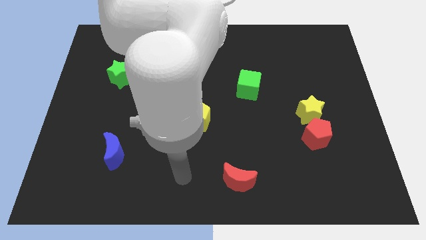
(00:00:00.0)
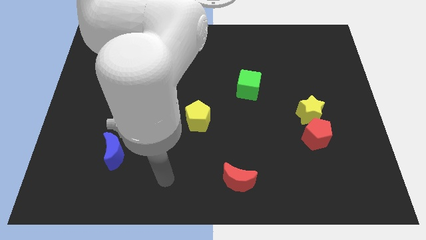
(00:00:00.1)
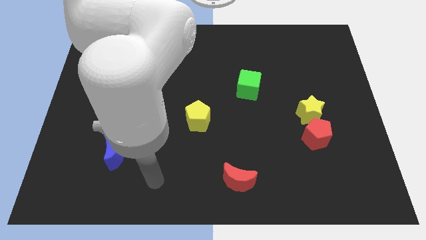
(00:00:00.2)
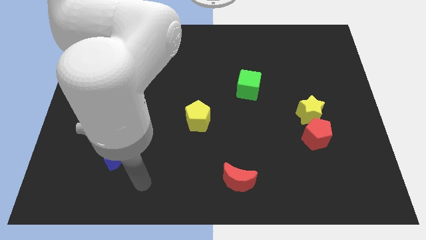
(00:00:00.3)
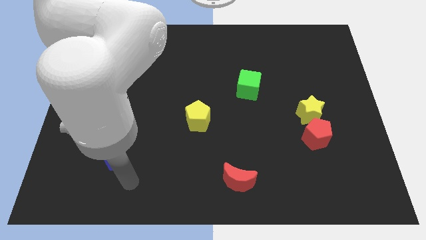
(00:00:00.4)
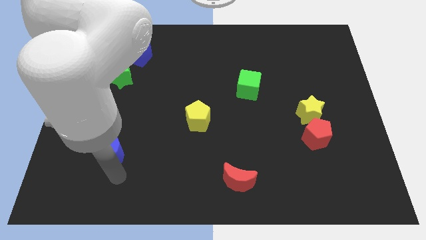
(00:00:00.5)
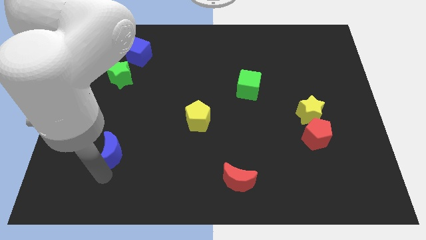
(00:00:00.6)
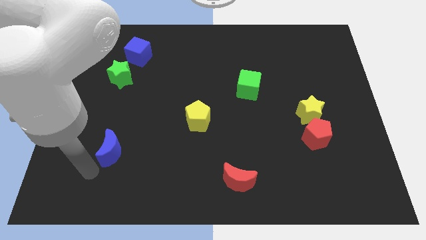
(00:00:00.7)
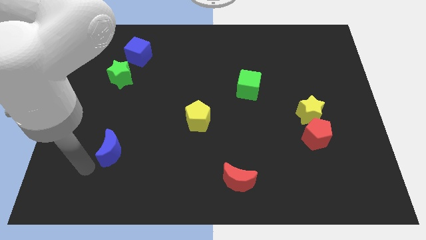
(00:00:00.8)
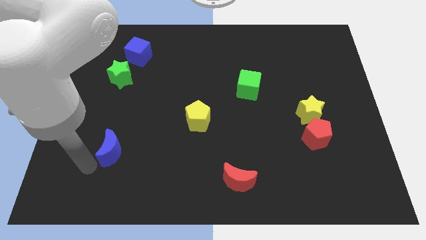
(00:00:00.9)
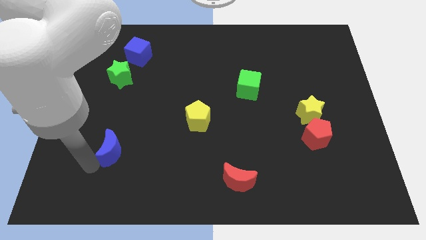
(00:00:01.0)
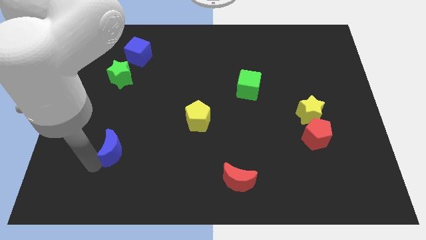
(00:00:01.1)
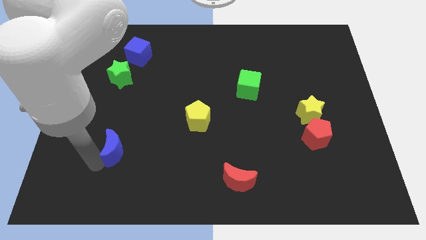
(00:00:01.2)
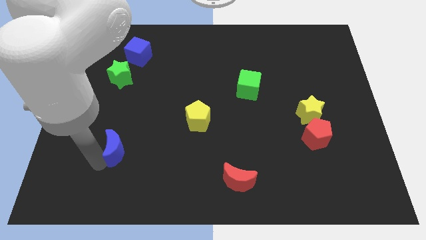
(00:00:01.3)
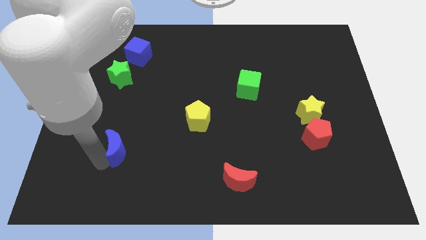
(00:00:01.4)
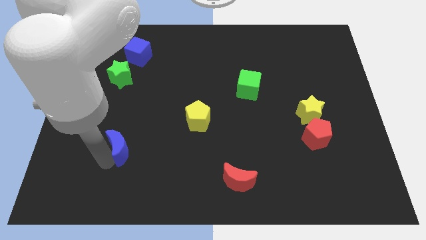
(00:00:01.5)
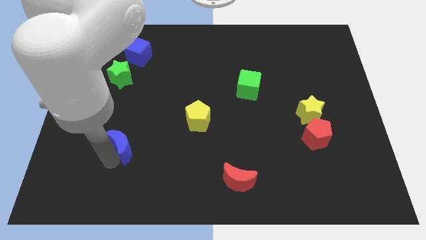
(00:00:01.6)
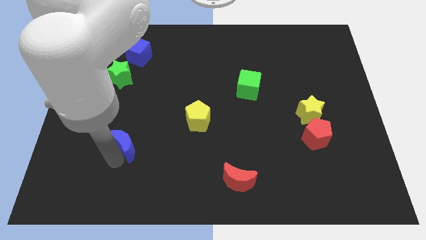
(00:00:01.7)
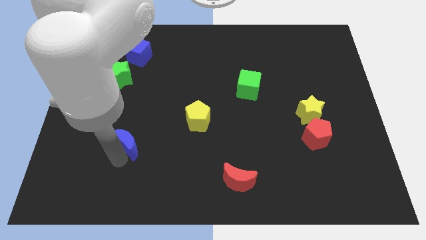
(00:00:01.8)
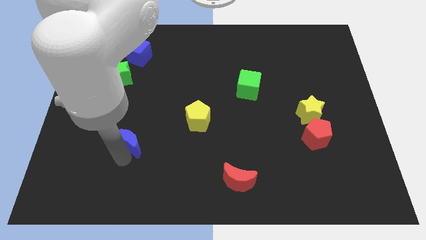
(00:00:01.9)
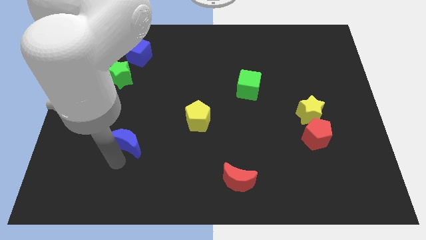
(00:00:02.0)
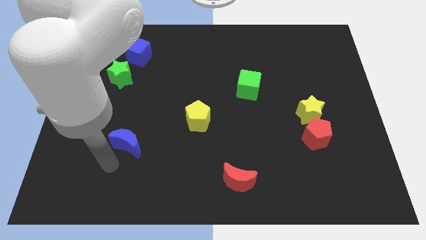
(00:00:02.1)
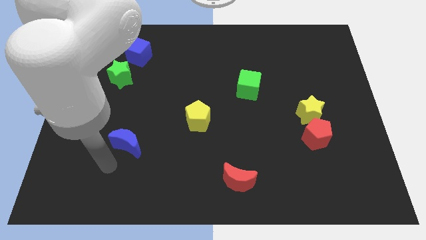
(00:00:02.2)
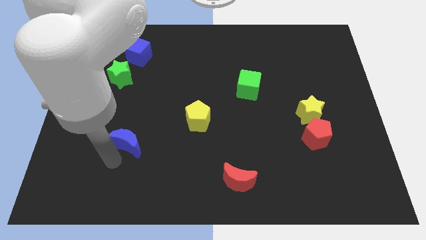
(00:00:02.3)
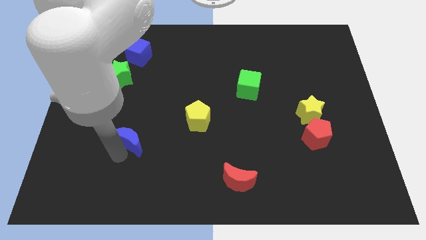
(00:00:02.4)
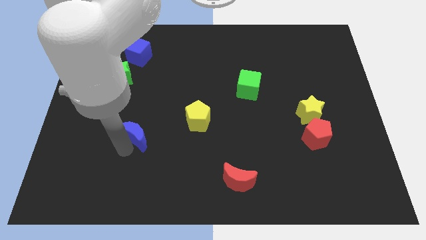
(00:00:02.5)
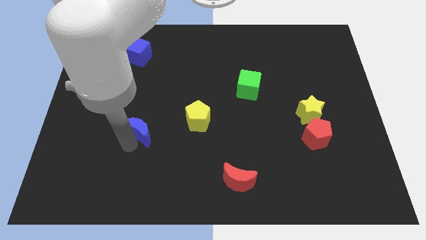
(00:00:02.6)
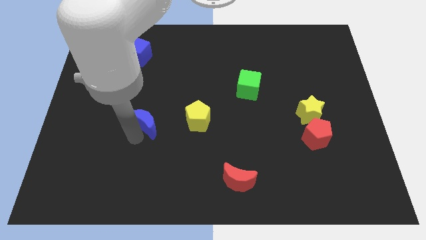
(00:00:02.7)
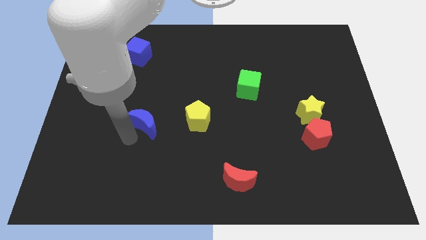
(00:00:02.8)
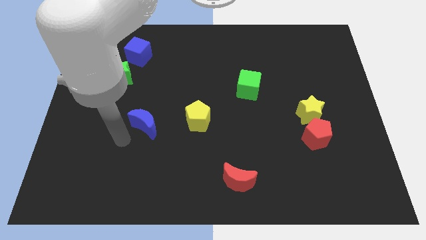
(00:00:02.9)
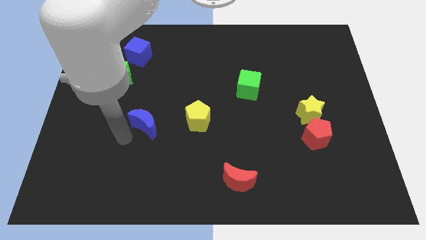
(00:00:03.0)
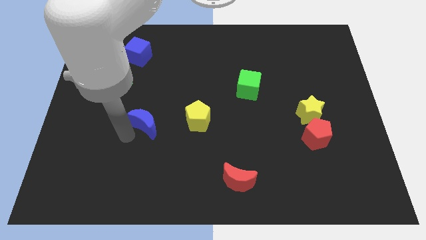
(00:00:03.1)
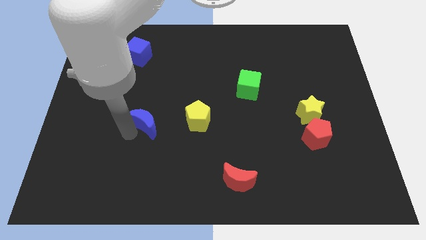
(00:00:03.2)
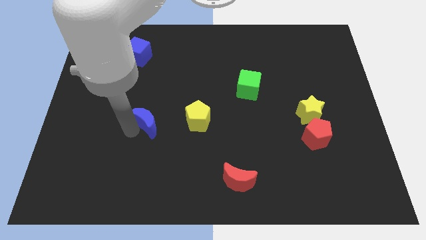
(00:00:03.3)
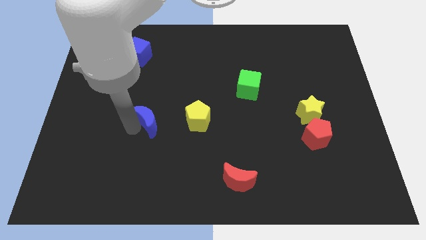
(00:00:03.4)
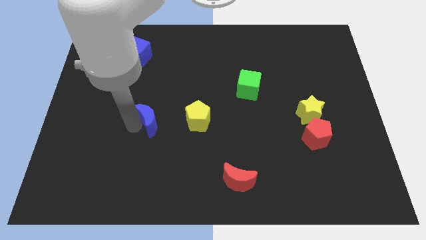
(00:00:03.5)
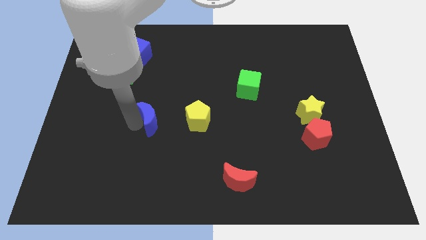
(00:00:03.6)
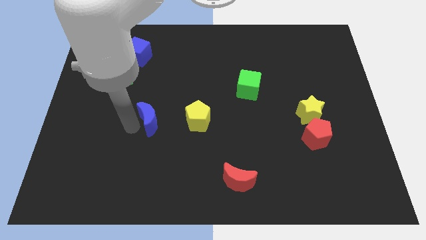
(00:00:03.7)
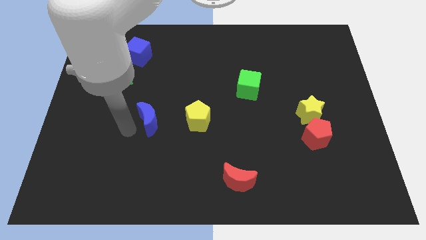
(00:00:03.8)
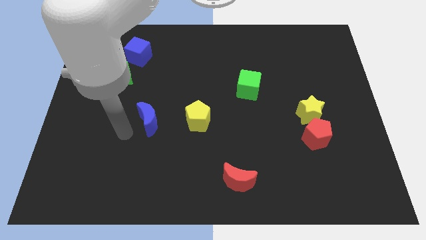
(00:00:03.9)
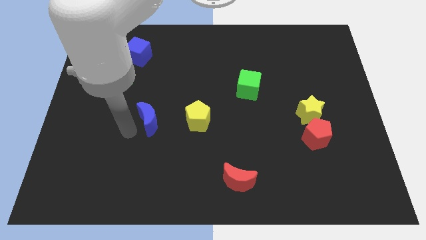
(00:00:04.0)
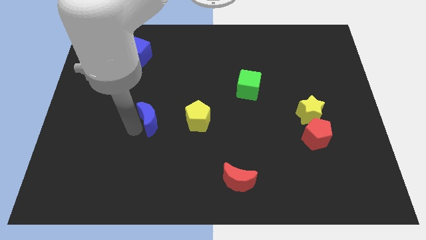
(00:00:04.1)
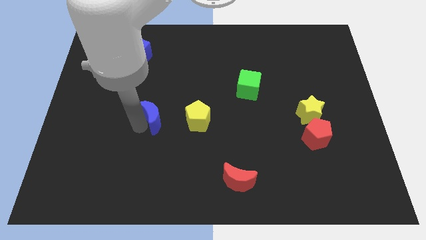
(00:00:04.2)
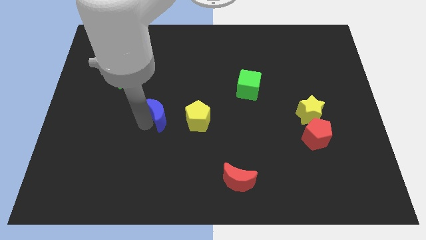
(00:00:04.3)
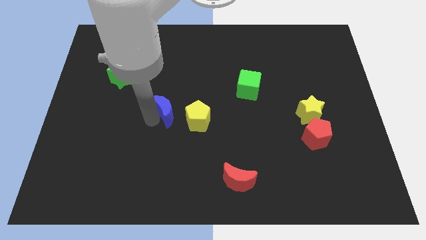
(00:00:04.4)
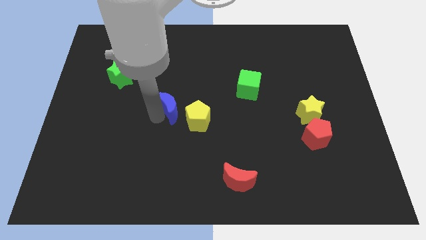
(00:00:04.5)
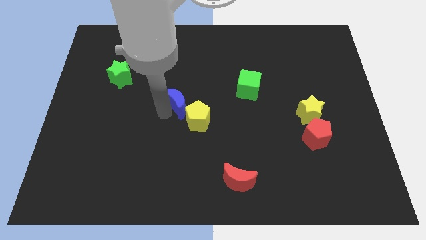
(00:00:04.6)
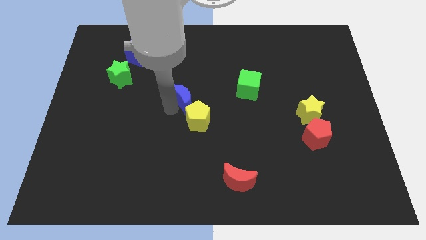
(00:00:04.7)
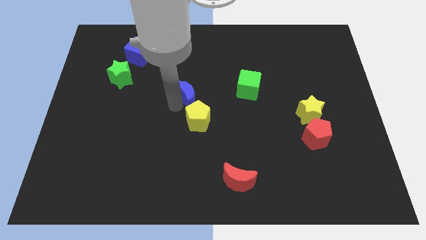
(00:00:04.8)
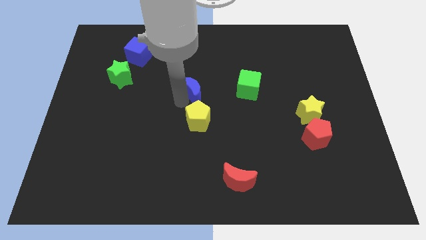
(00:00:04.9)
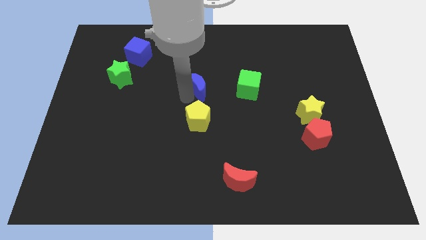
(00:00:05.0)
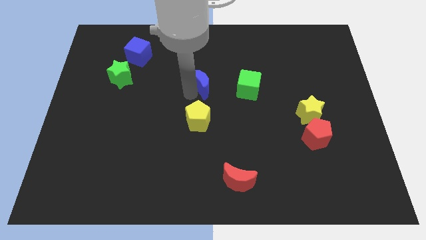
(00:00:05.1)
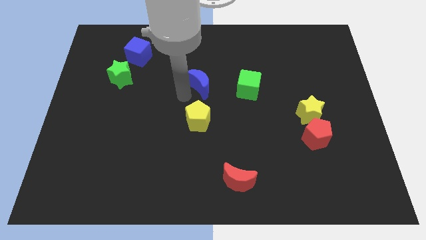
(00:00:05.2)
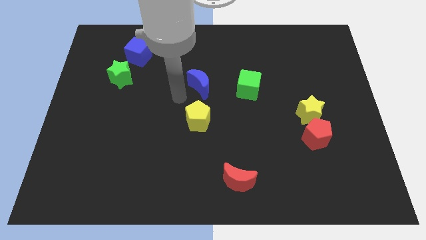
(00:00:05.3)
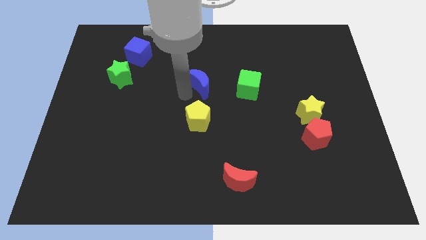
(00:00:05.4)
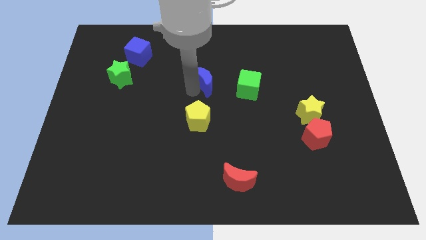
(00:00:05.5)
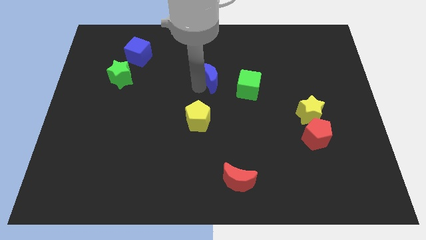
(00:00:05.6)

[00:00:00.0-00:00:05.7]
slide the blue moon to the top left side of the green cube

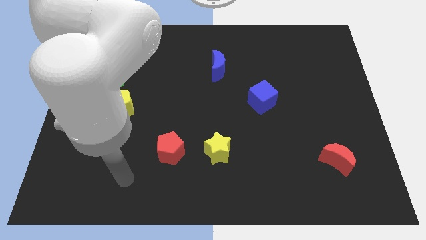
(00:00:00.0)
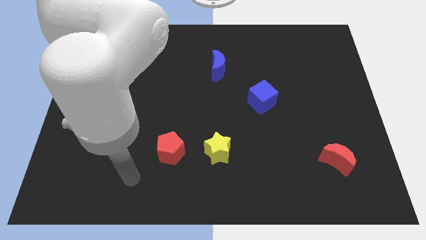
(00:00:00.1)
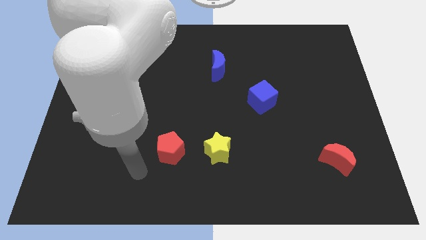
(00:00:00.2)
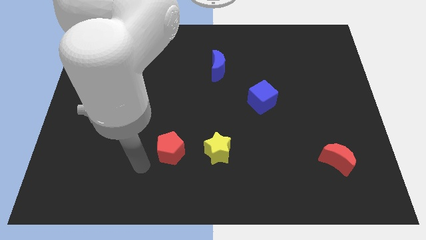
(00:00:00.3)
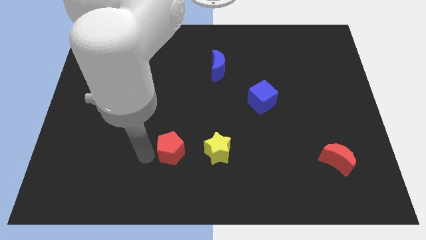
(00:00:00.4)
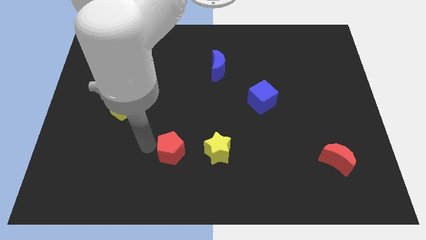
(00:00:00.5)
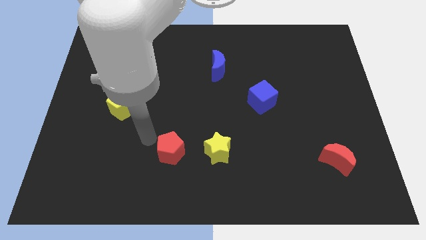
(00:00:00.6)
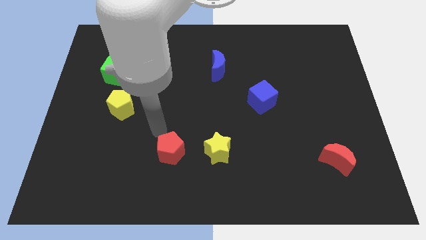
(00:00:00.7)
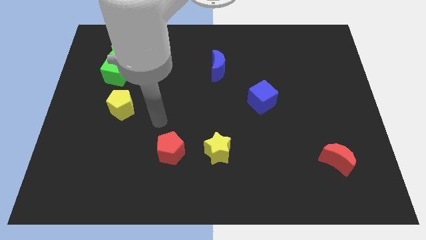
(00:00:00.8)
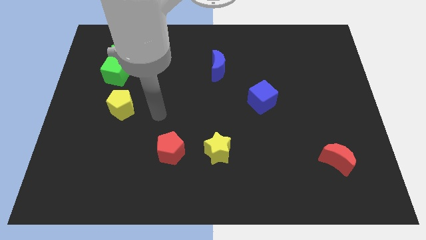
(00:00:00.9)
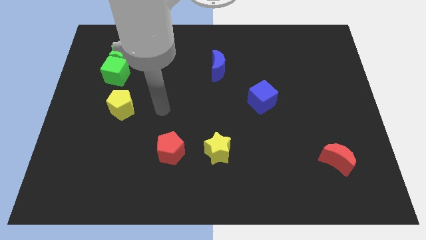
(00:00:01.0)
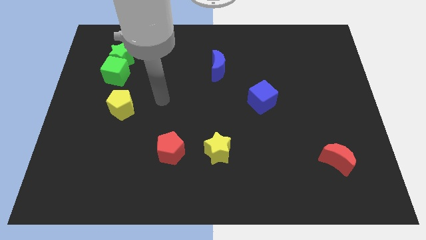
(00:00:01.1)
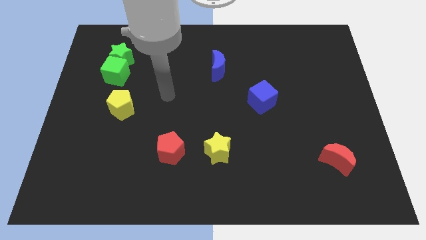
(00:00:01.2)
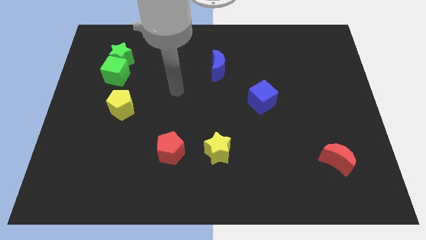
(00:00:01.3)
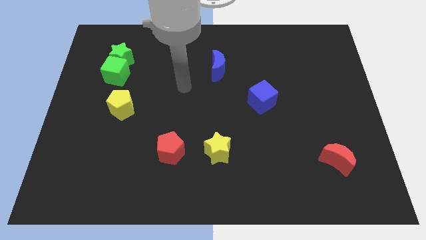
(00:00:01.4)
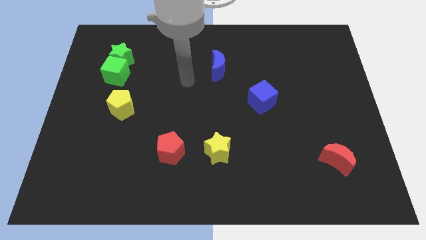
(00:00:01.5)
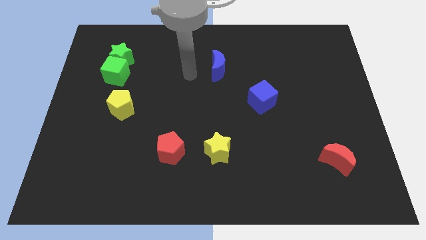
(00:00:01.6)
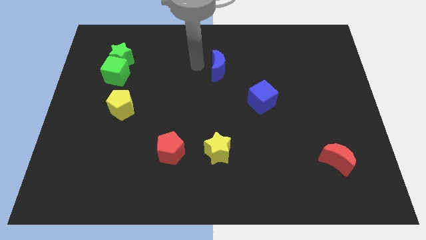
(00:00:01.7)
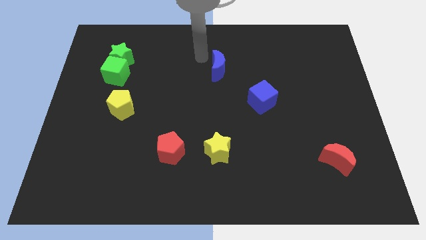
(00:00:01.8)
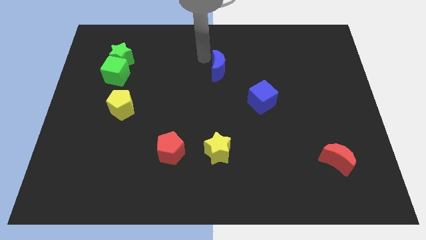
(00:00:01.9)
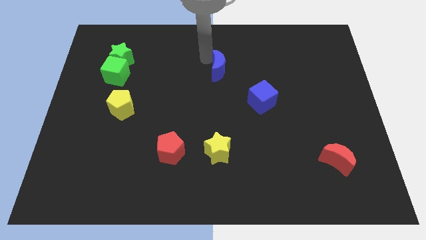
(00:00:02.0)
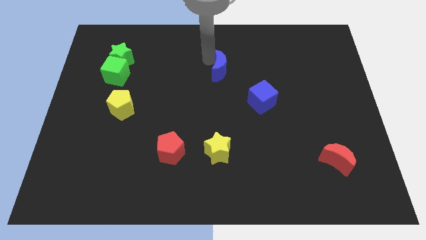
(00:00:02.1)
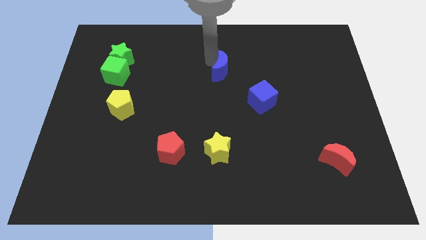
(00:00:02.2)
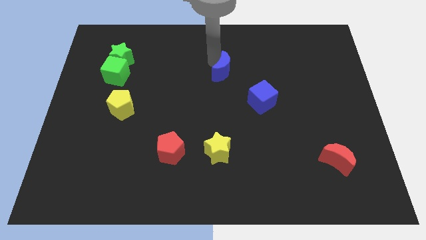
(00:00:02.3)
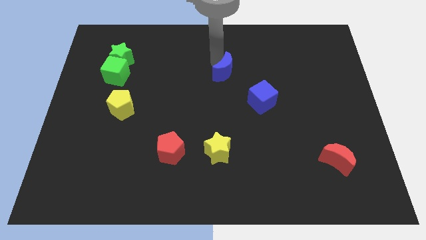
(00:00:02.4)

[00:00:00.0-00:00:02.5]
slide the blue moon diagonally up and to the left of the blue cube
